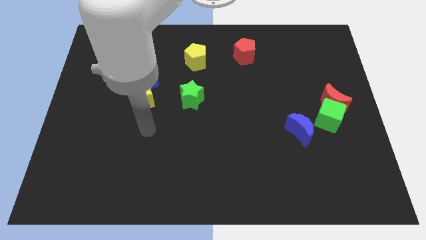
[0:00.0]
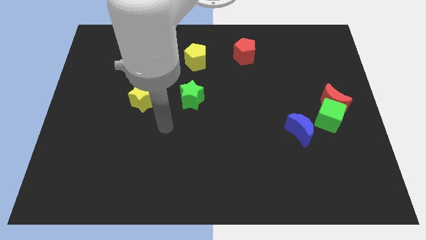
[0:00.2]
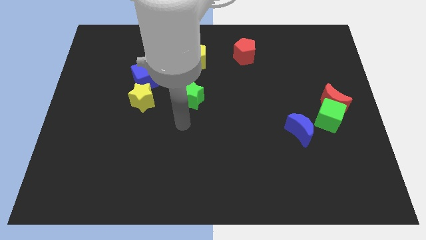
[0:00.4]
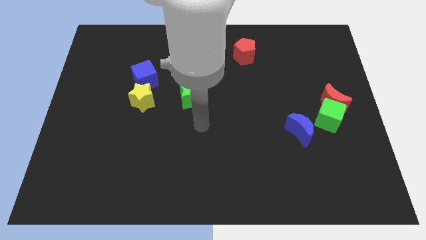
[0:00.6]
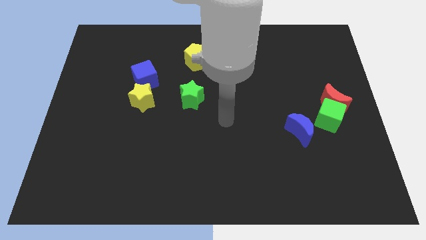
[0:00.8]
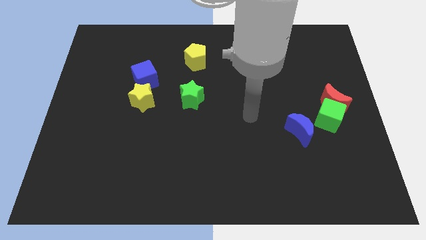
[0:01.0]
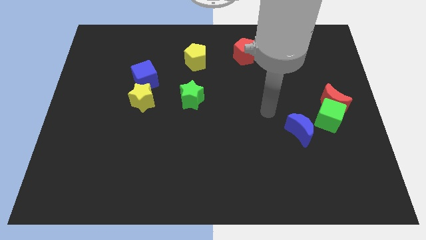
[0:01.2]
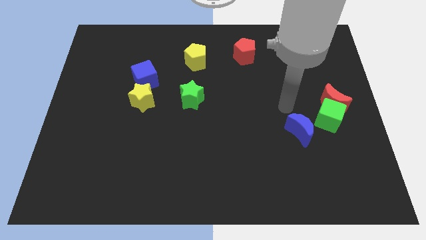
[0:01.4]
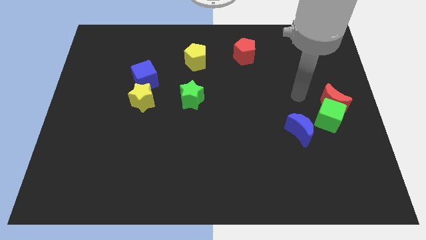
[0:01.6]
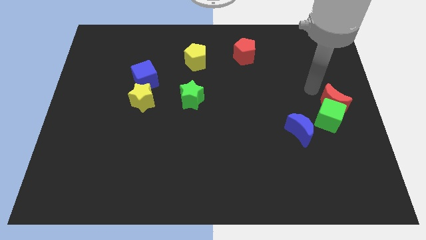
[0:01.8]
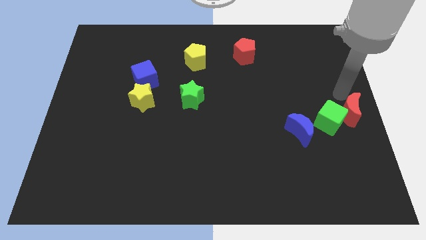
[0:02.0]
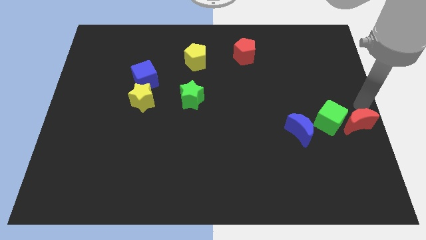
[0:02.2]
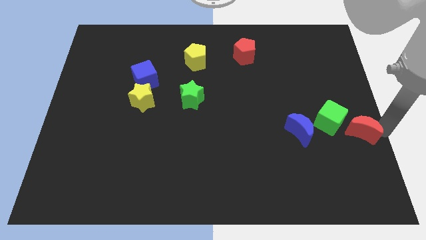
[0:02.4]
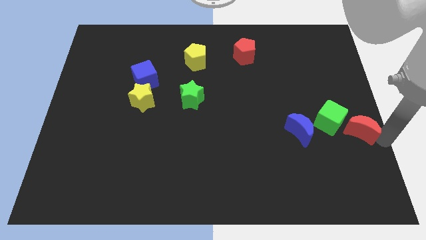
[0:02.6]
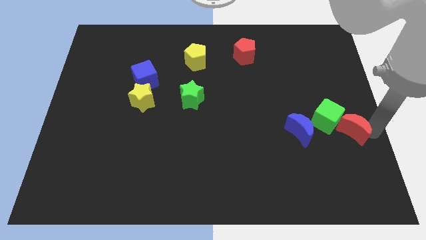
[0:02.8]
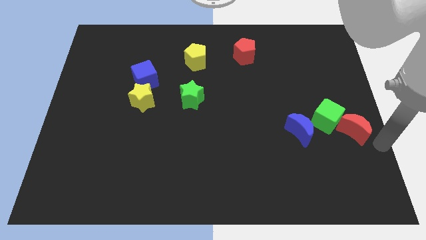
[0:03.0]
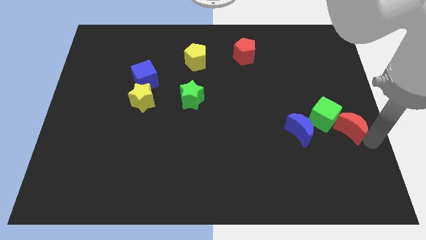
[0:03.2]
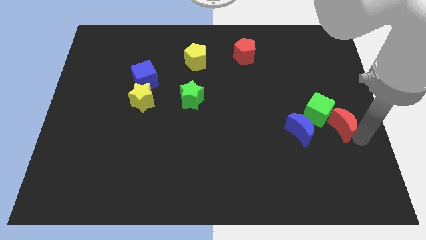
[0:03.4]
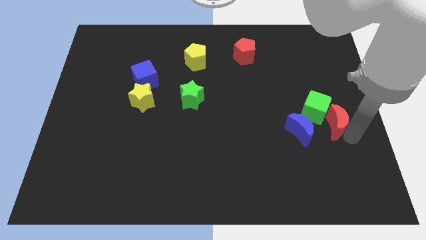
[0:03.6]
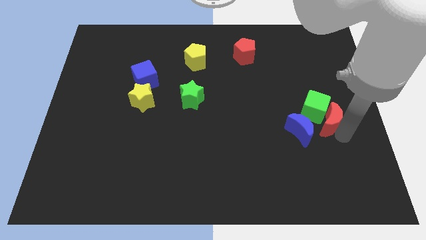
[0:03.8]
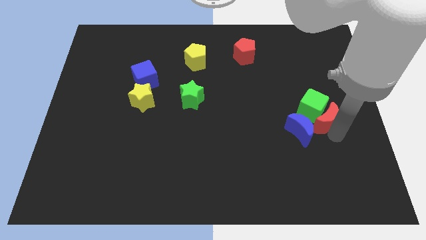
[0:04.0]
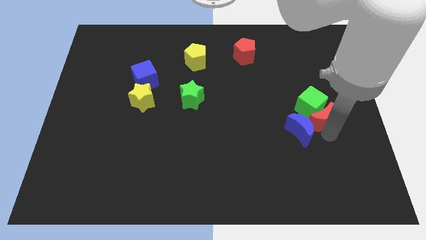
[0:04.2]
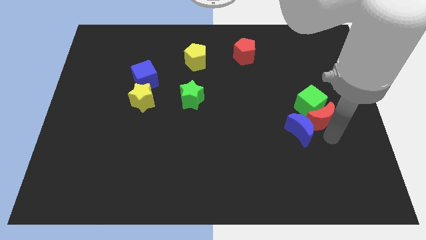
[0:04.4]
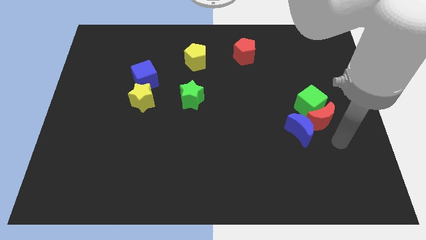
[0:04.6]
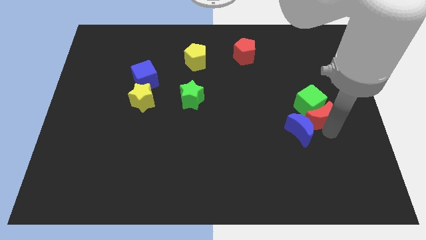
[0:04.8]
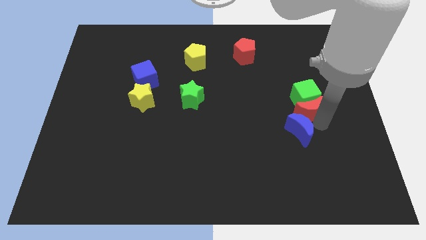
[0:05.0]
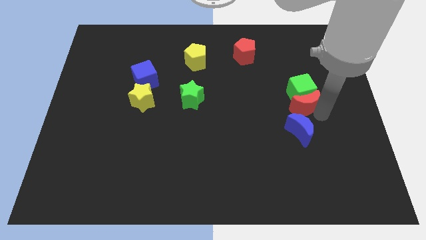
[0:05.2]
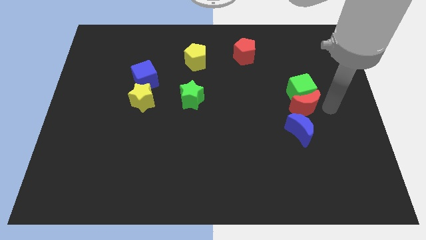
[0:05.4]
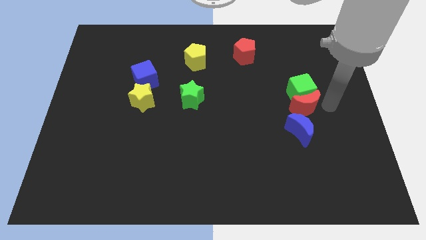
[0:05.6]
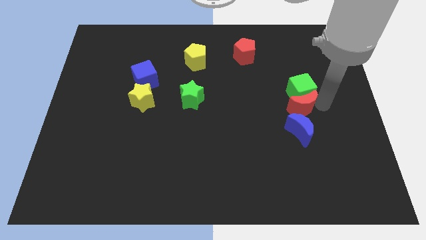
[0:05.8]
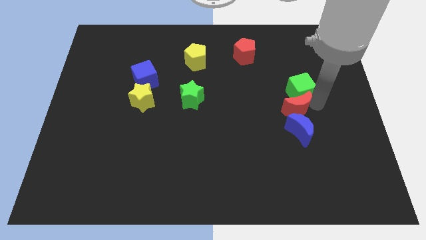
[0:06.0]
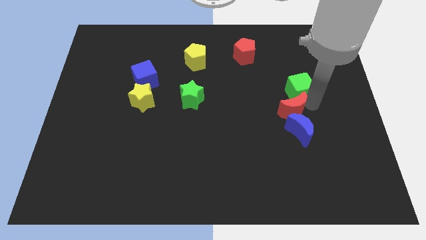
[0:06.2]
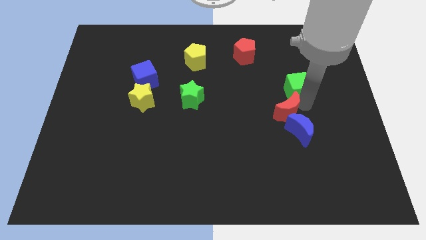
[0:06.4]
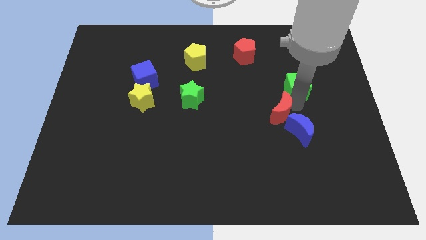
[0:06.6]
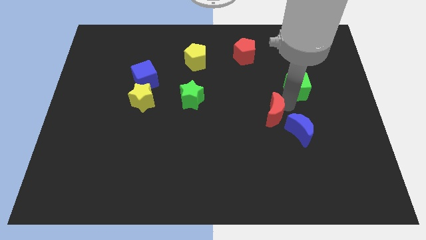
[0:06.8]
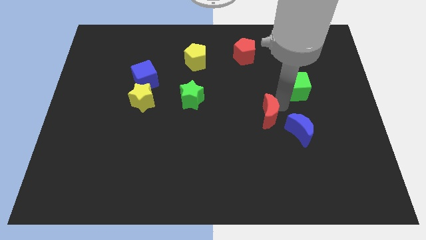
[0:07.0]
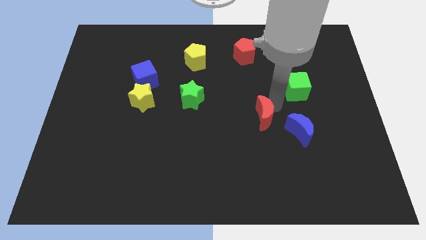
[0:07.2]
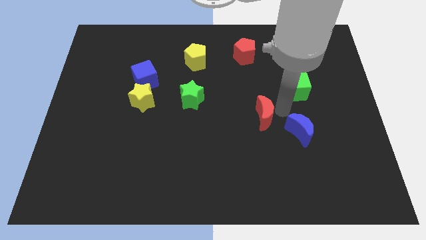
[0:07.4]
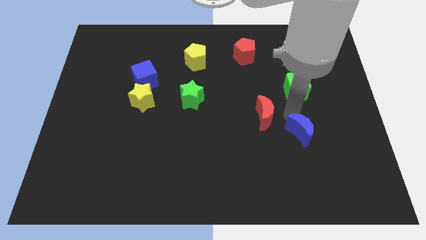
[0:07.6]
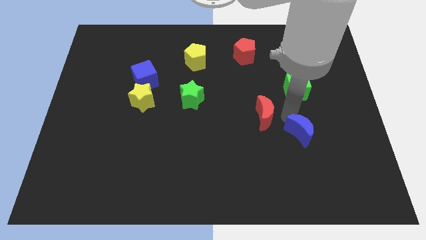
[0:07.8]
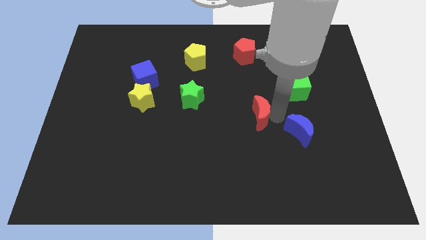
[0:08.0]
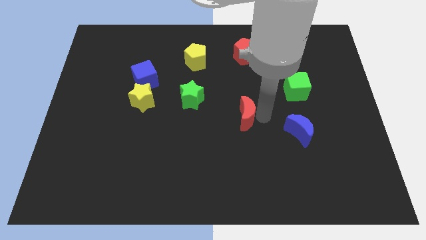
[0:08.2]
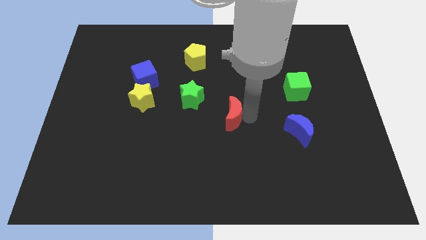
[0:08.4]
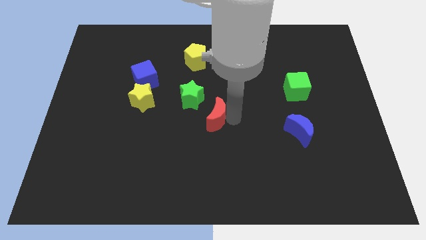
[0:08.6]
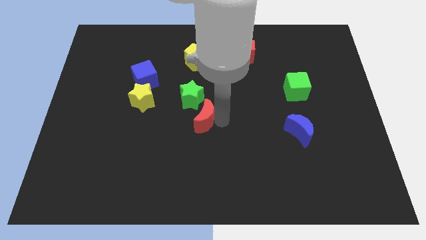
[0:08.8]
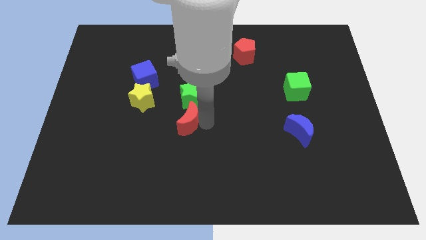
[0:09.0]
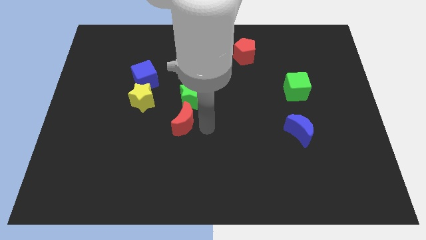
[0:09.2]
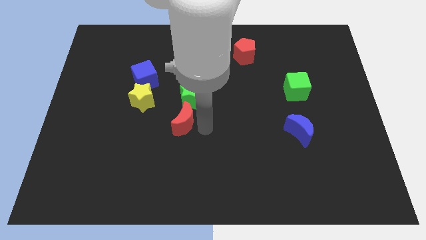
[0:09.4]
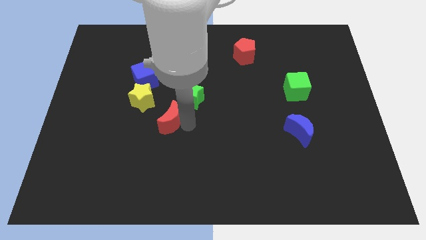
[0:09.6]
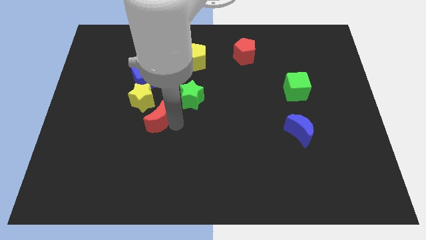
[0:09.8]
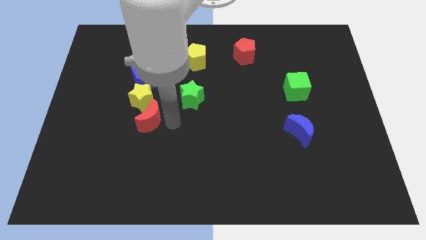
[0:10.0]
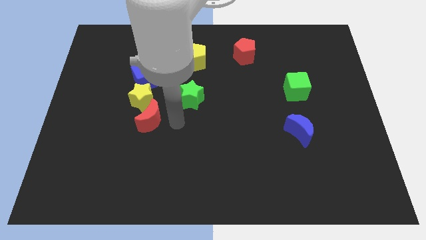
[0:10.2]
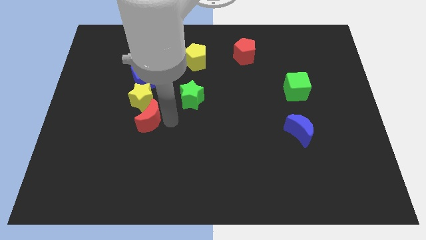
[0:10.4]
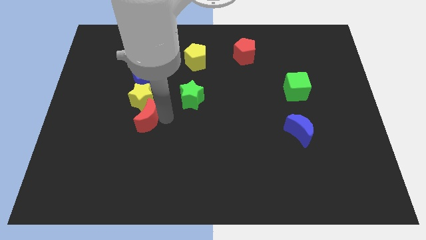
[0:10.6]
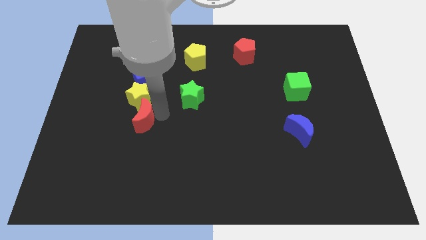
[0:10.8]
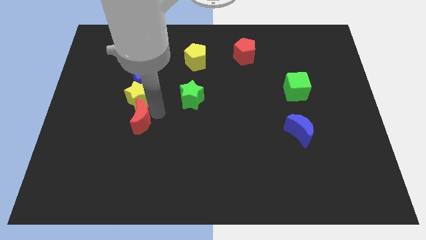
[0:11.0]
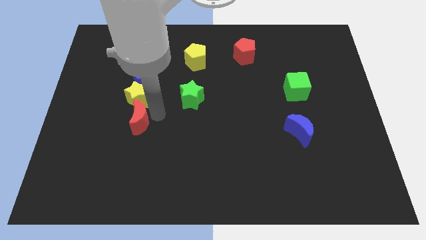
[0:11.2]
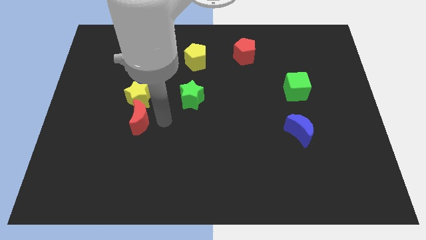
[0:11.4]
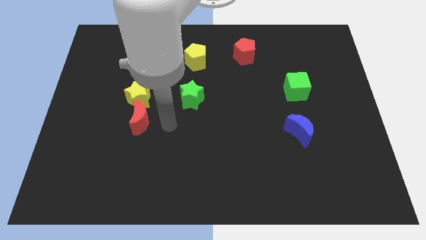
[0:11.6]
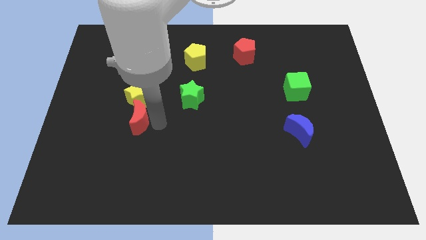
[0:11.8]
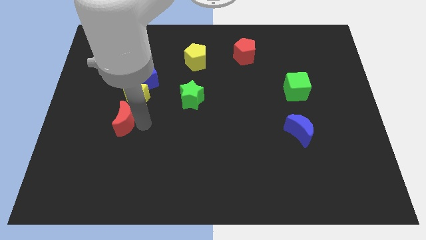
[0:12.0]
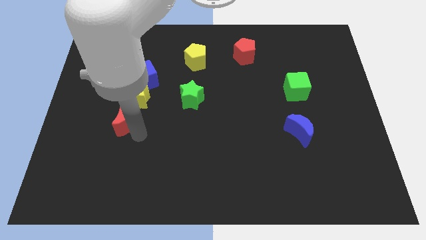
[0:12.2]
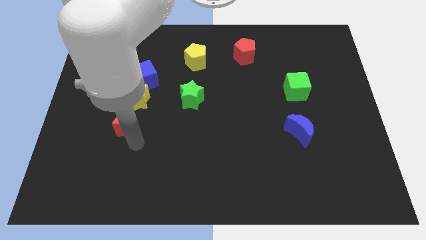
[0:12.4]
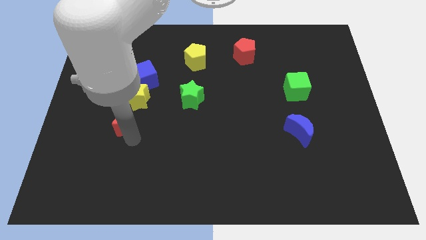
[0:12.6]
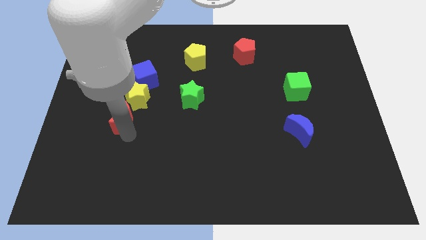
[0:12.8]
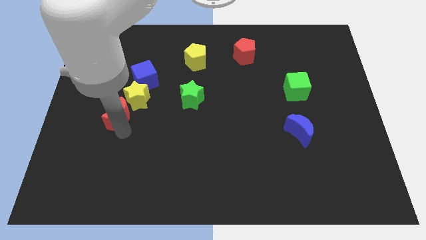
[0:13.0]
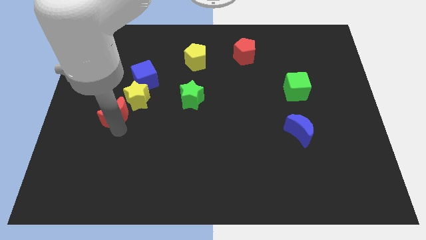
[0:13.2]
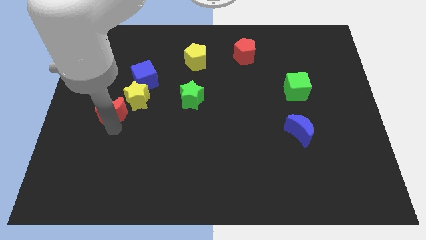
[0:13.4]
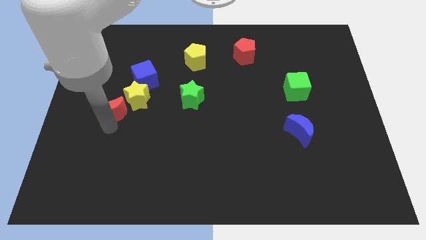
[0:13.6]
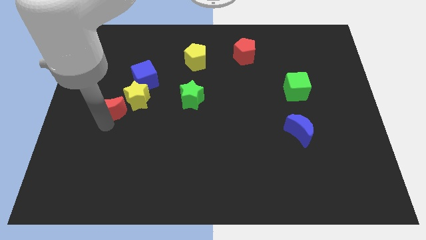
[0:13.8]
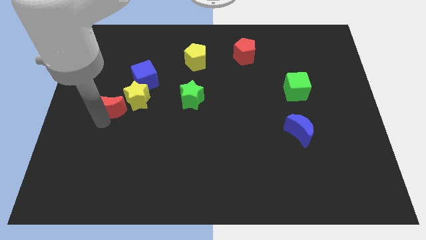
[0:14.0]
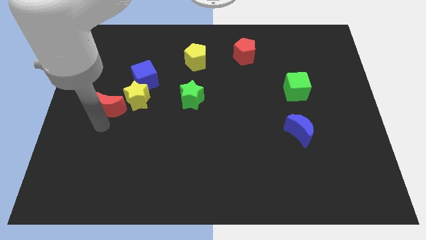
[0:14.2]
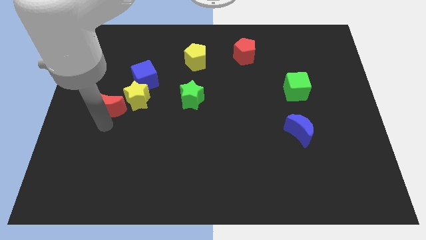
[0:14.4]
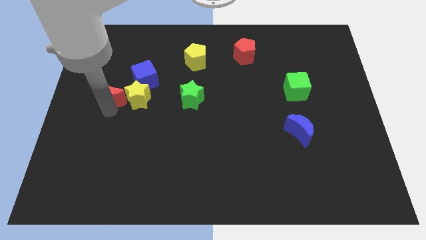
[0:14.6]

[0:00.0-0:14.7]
put the red moon to the top left of the yellow star

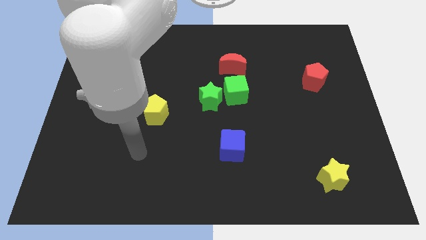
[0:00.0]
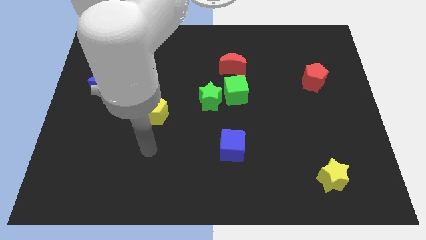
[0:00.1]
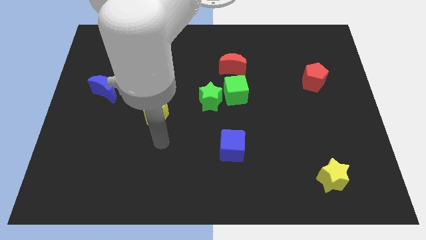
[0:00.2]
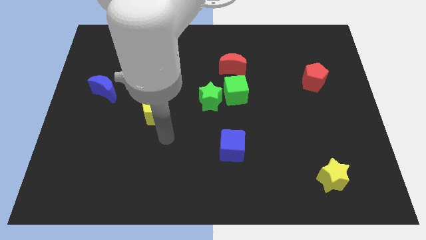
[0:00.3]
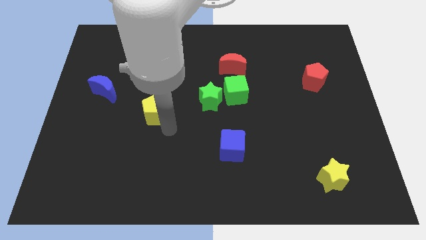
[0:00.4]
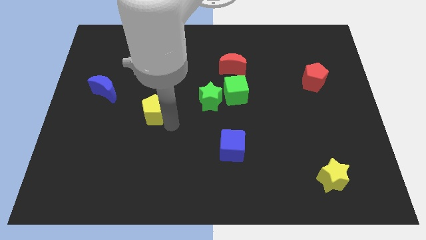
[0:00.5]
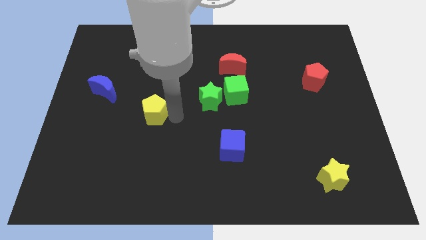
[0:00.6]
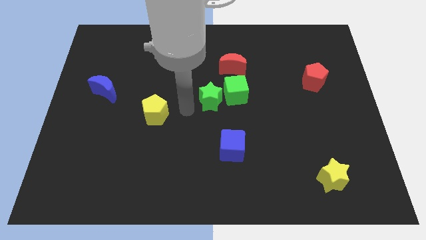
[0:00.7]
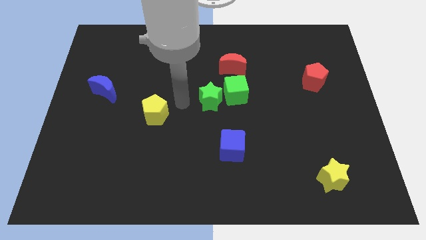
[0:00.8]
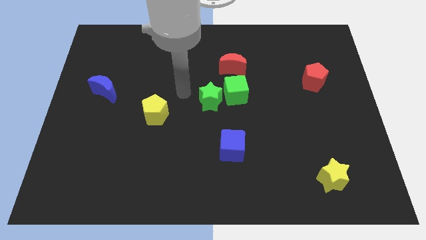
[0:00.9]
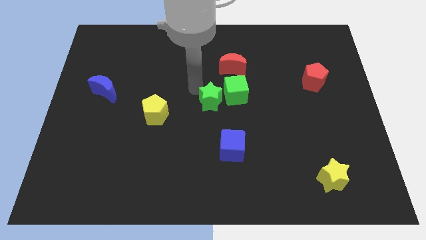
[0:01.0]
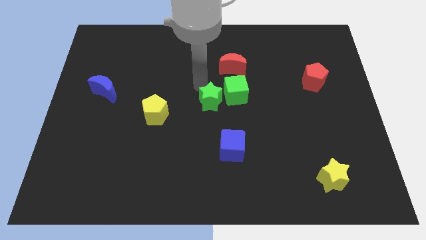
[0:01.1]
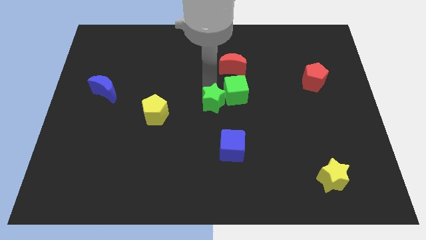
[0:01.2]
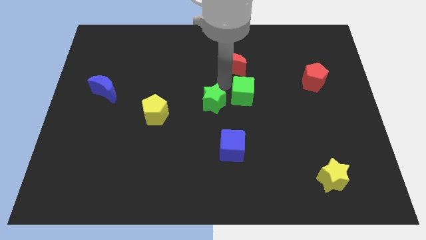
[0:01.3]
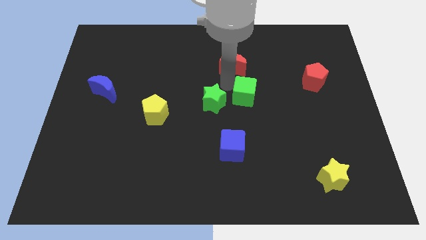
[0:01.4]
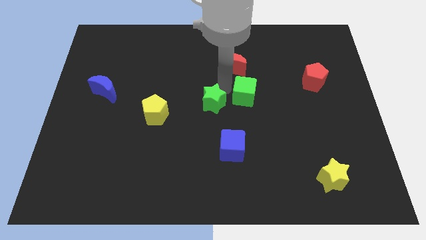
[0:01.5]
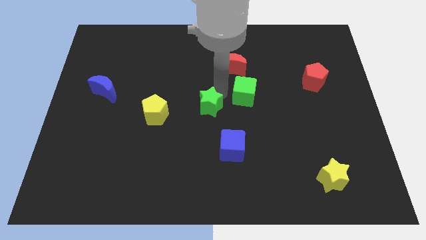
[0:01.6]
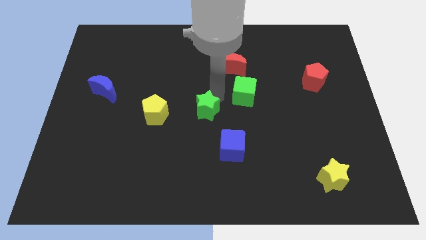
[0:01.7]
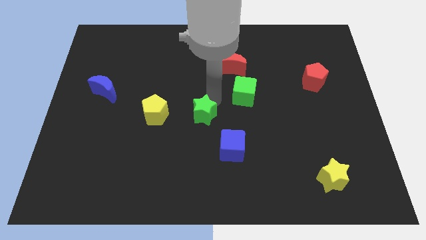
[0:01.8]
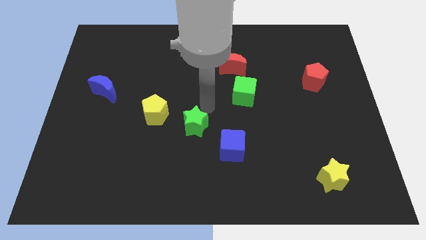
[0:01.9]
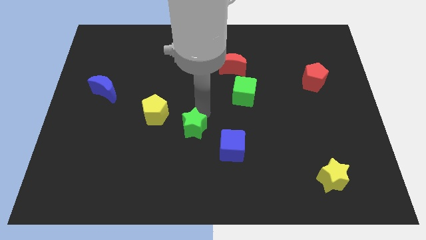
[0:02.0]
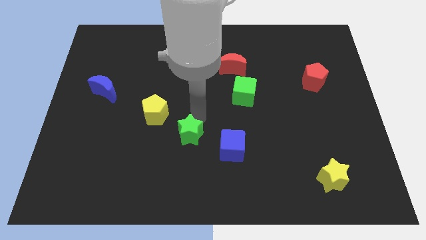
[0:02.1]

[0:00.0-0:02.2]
slide the green star left of the blue cube
